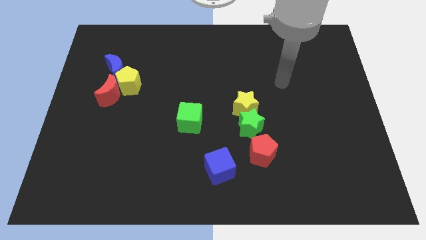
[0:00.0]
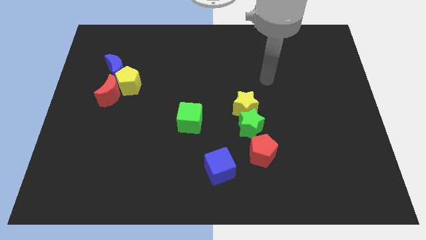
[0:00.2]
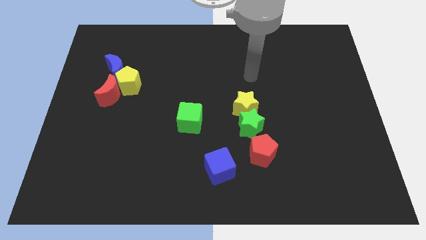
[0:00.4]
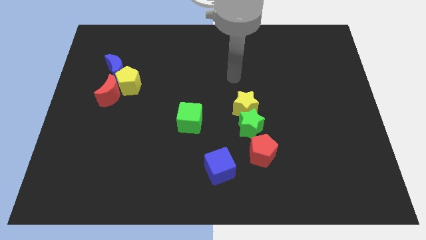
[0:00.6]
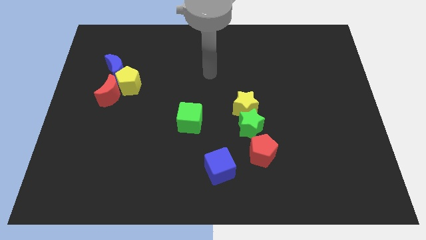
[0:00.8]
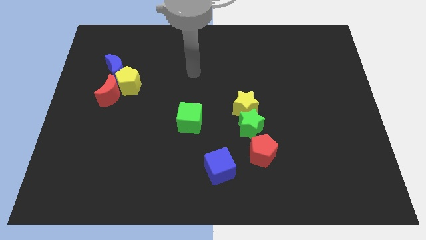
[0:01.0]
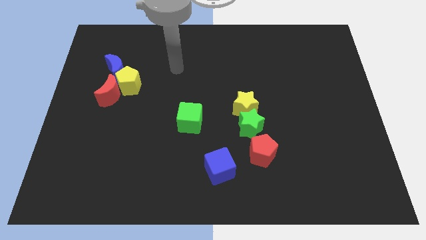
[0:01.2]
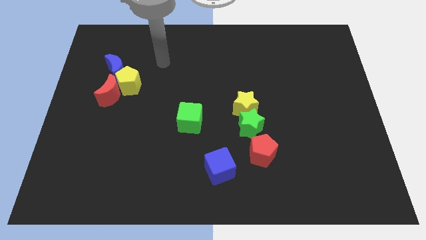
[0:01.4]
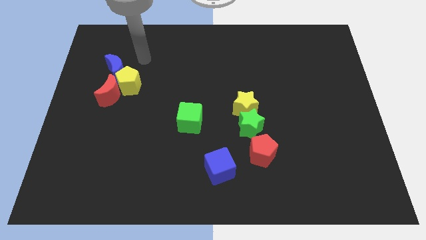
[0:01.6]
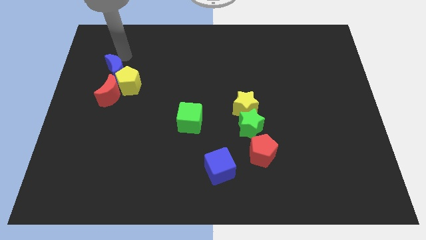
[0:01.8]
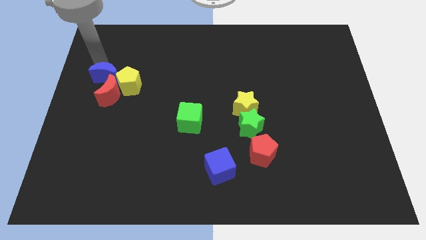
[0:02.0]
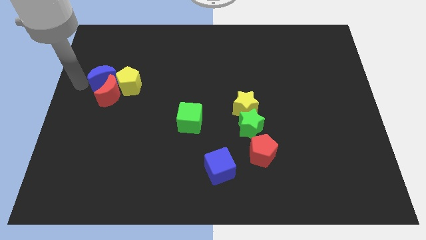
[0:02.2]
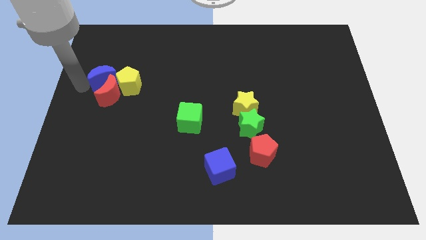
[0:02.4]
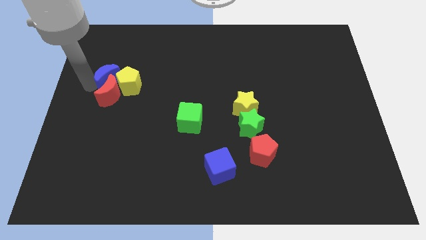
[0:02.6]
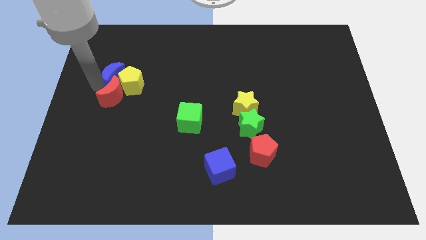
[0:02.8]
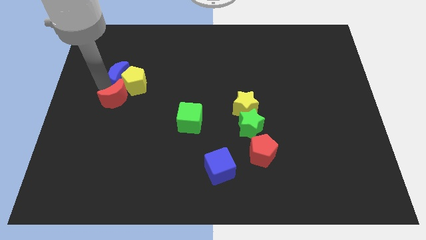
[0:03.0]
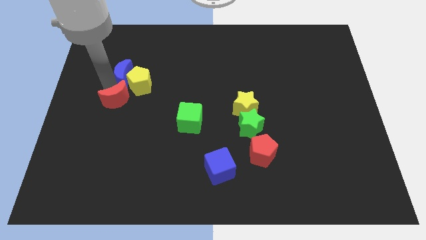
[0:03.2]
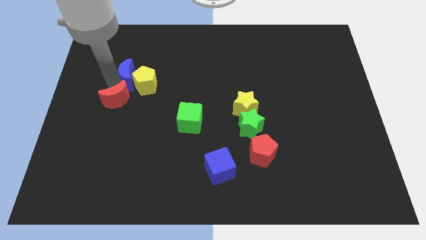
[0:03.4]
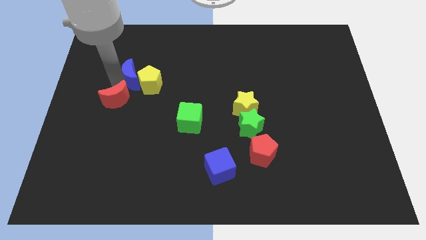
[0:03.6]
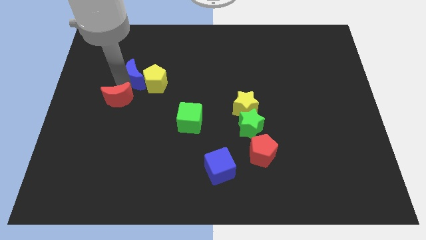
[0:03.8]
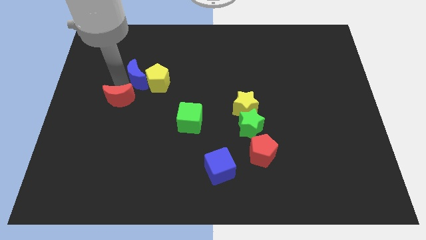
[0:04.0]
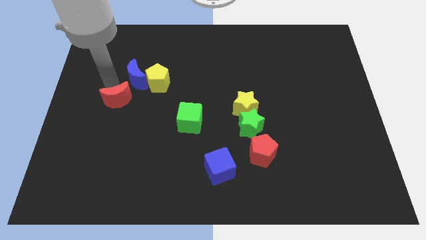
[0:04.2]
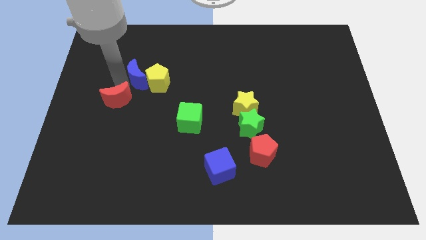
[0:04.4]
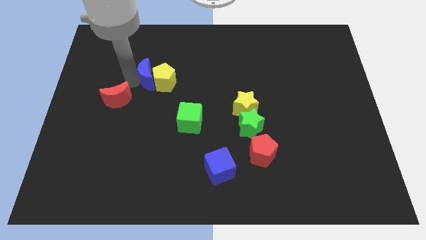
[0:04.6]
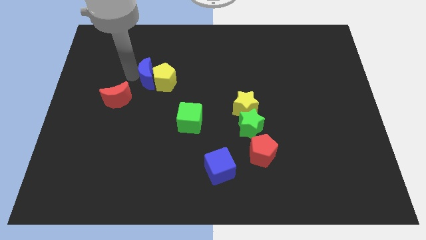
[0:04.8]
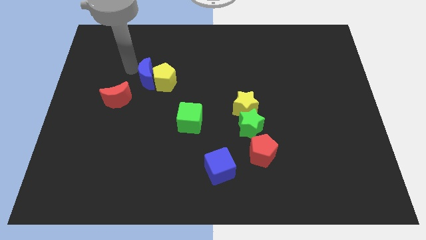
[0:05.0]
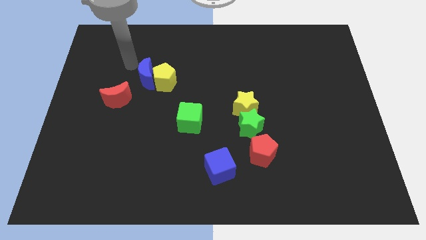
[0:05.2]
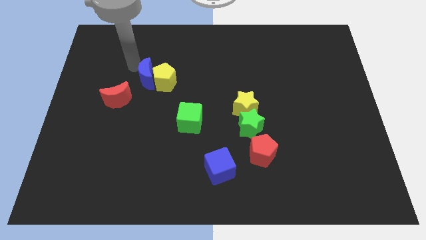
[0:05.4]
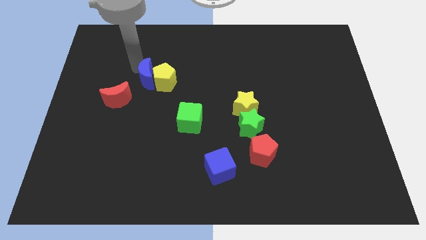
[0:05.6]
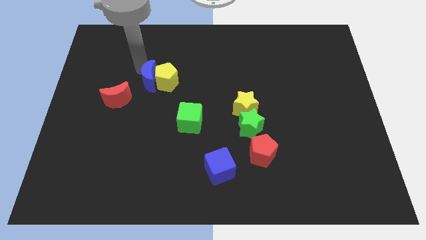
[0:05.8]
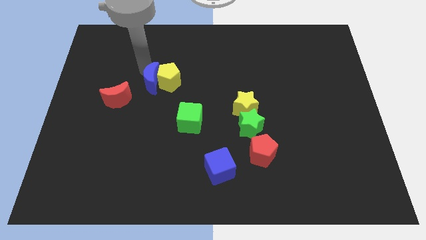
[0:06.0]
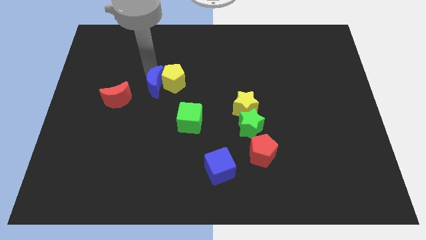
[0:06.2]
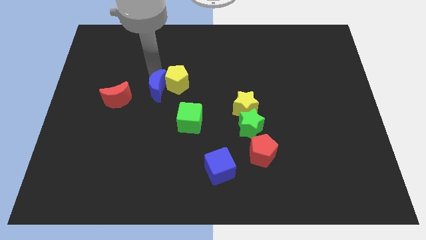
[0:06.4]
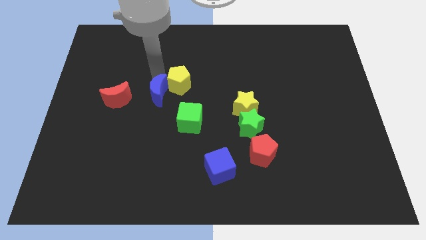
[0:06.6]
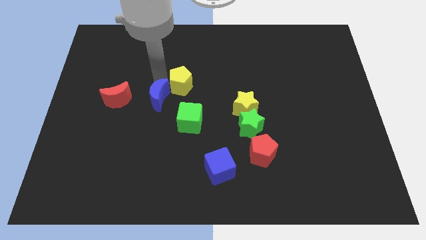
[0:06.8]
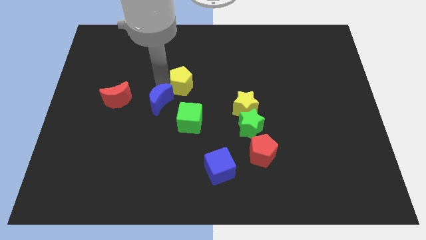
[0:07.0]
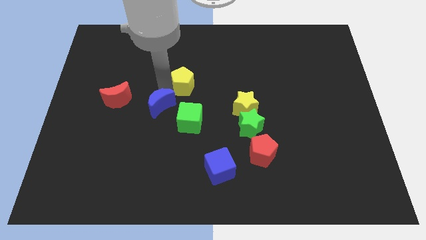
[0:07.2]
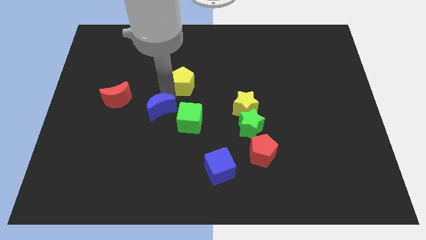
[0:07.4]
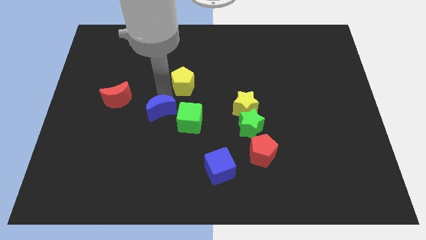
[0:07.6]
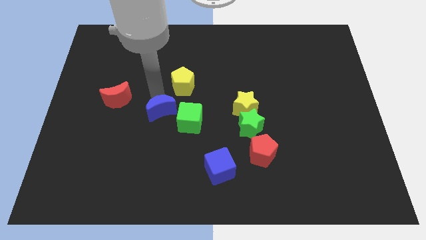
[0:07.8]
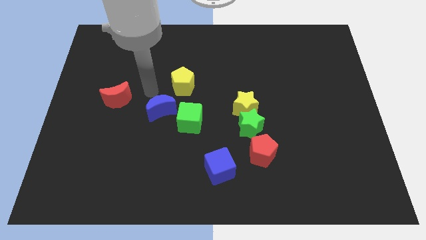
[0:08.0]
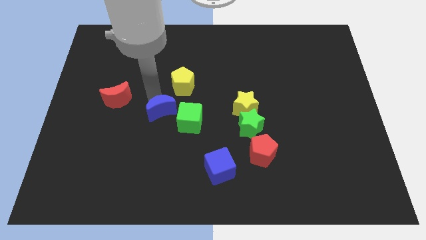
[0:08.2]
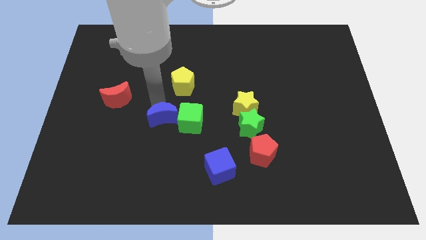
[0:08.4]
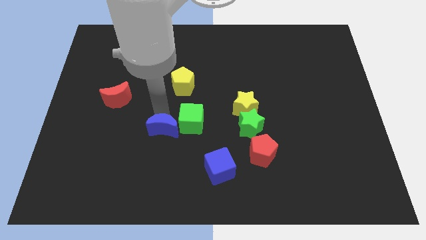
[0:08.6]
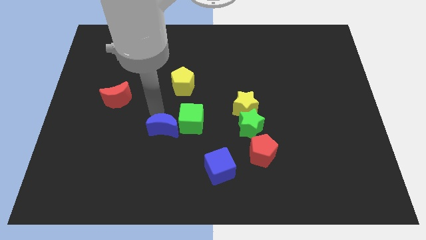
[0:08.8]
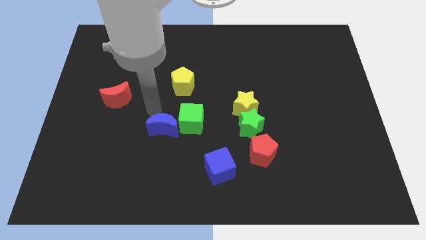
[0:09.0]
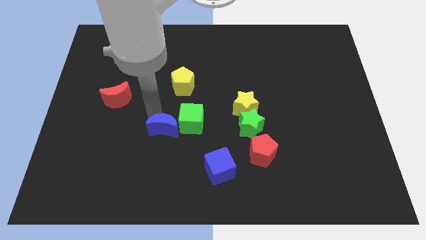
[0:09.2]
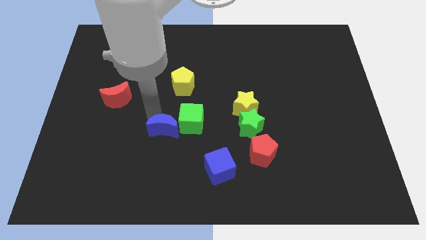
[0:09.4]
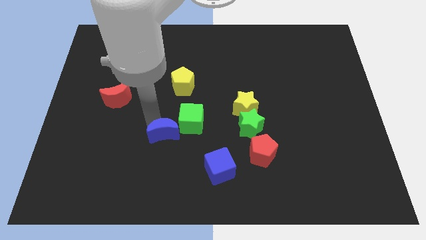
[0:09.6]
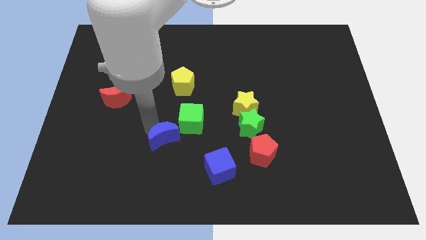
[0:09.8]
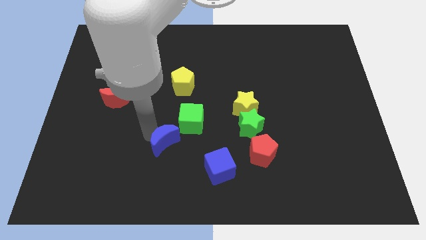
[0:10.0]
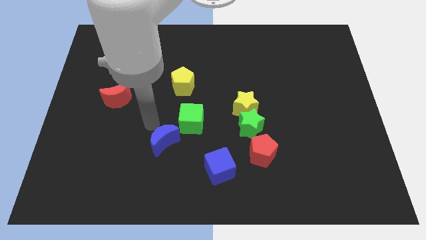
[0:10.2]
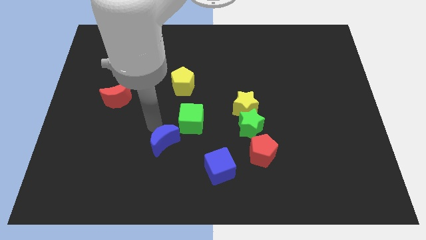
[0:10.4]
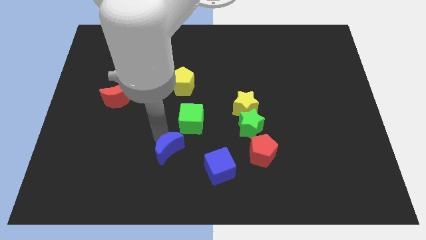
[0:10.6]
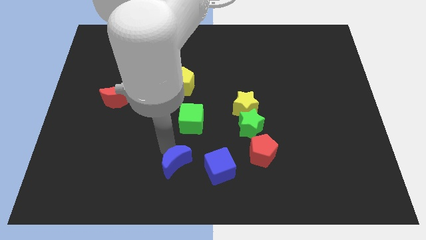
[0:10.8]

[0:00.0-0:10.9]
put the blue moon to the bottom side

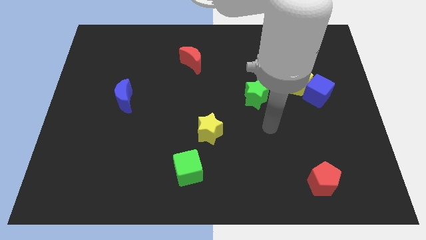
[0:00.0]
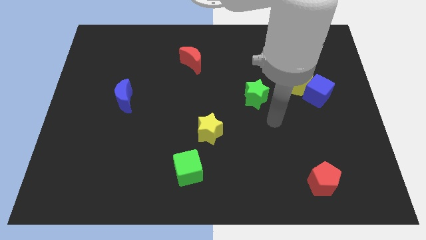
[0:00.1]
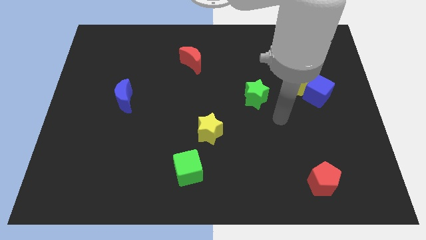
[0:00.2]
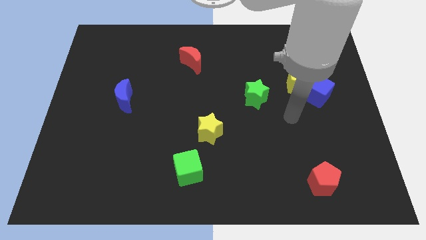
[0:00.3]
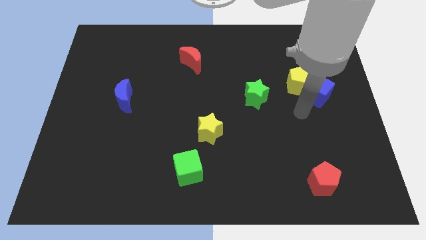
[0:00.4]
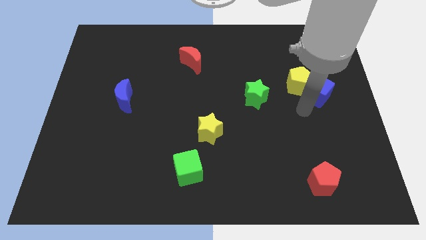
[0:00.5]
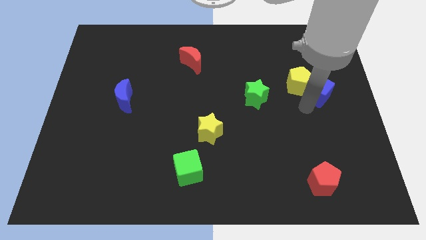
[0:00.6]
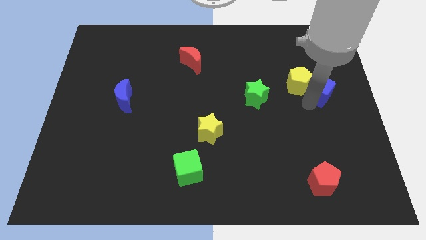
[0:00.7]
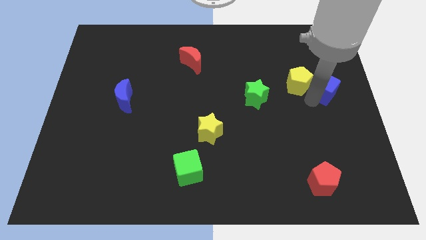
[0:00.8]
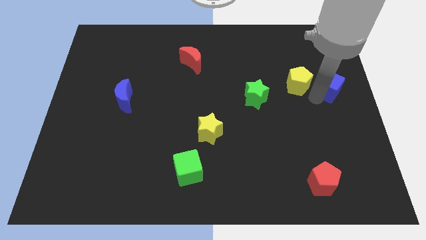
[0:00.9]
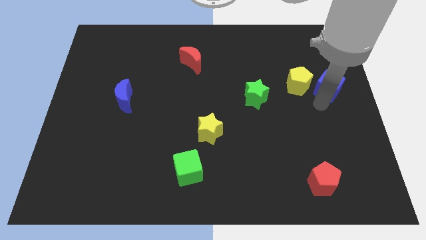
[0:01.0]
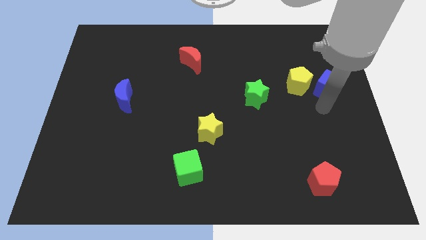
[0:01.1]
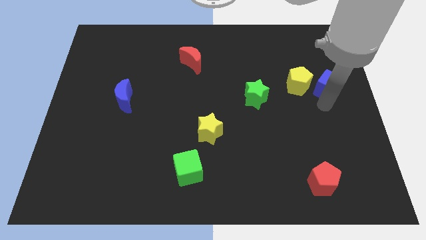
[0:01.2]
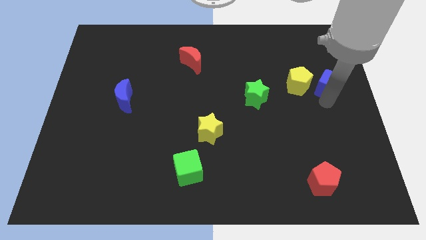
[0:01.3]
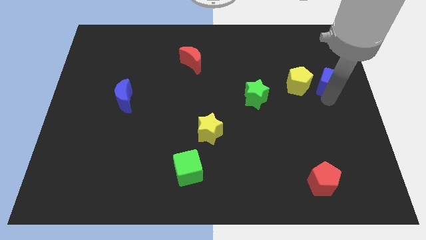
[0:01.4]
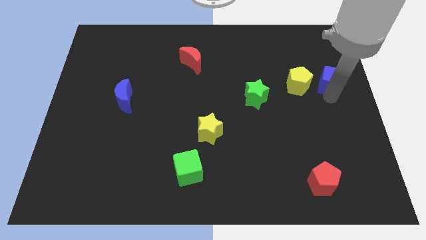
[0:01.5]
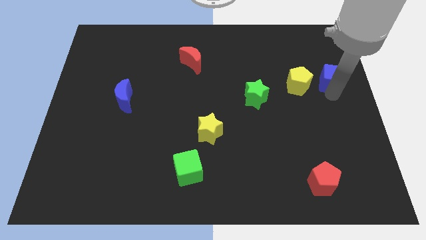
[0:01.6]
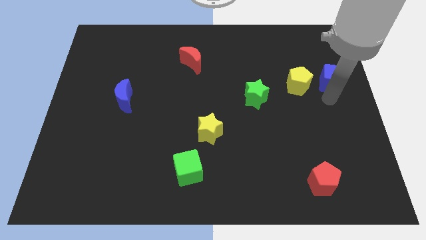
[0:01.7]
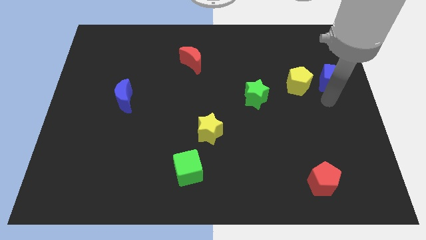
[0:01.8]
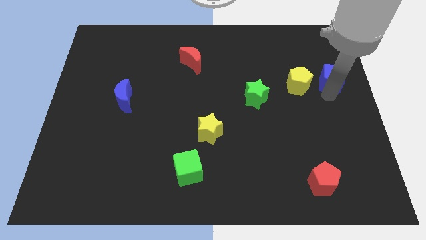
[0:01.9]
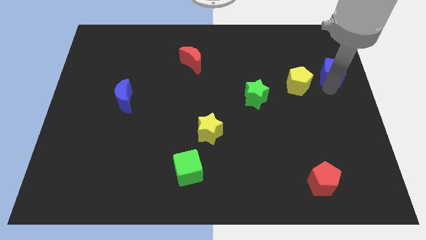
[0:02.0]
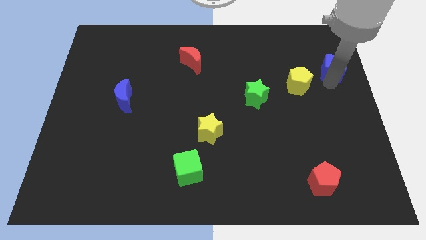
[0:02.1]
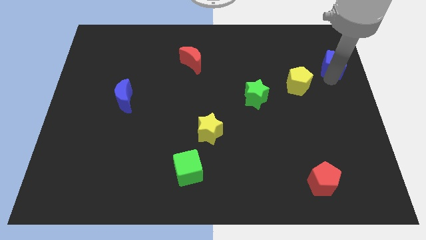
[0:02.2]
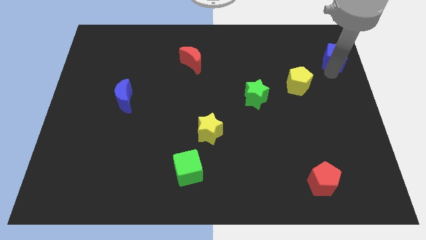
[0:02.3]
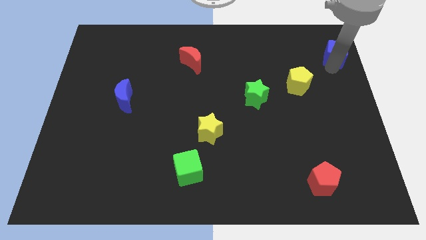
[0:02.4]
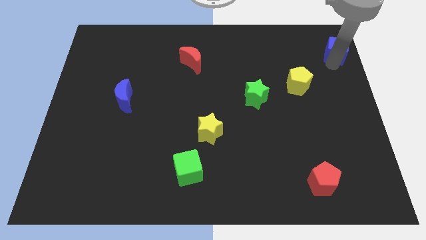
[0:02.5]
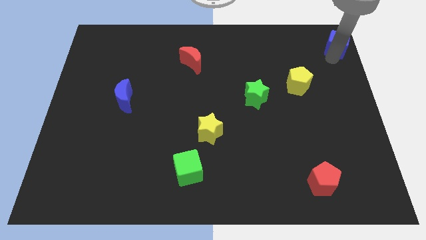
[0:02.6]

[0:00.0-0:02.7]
slide the blue cube to the top right corner
